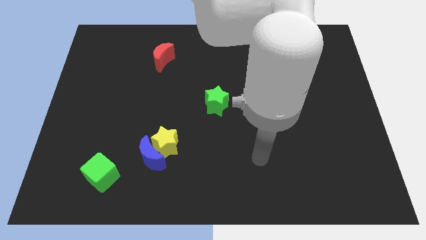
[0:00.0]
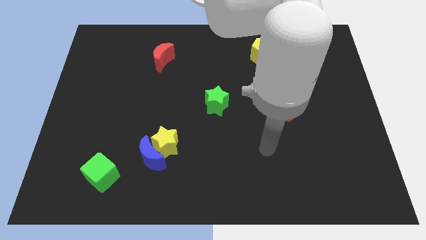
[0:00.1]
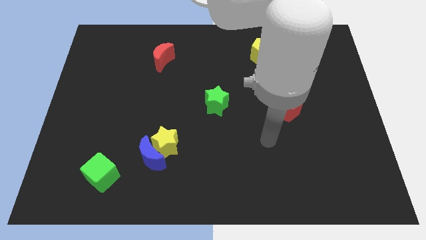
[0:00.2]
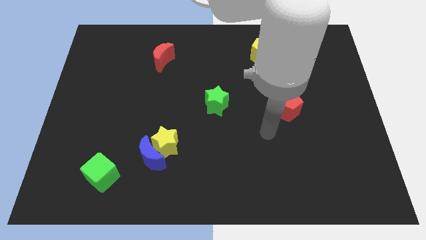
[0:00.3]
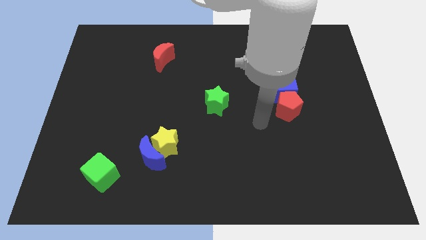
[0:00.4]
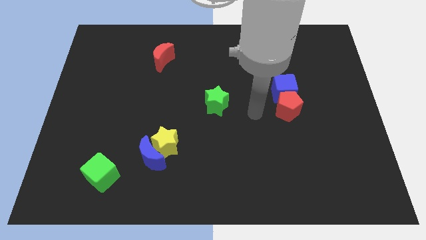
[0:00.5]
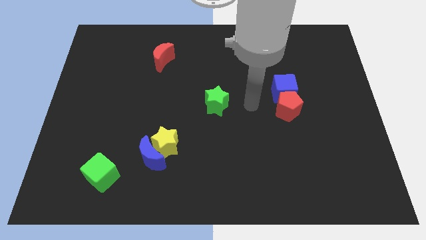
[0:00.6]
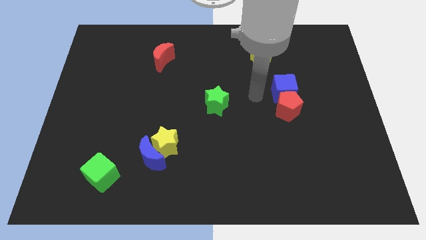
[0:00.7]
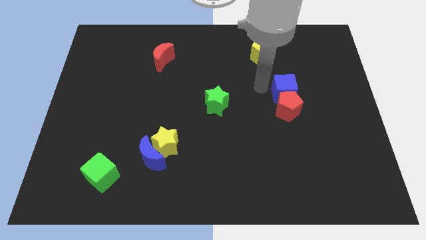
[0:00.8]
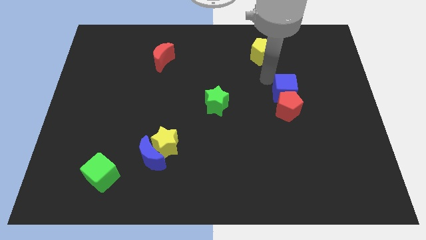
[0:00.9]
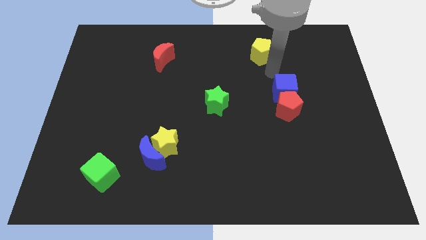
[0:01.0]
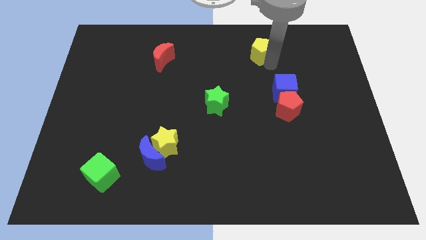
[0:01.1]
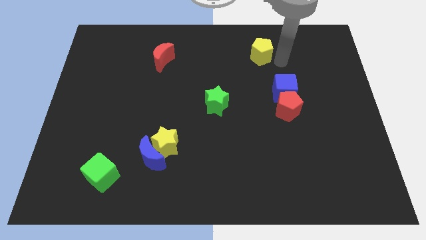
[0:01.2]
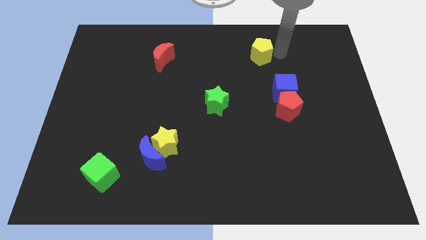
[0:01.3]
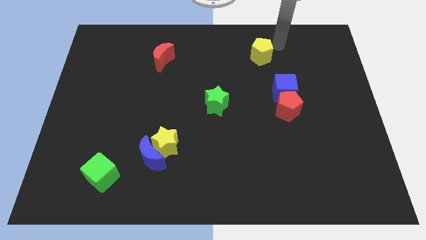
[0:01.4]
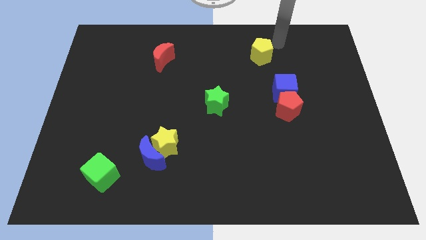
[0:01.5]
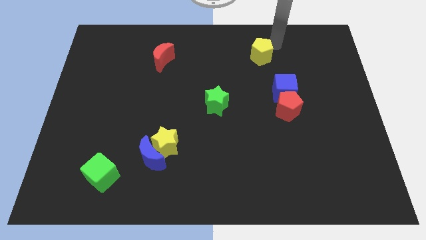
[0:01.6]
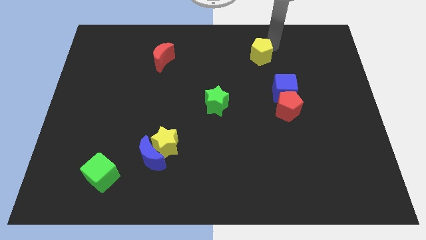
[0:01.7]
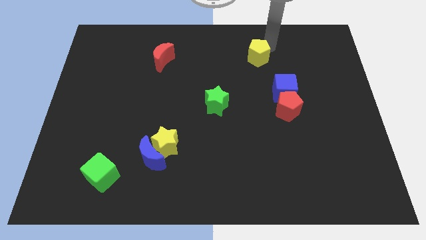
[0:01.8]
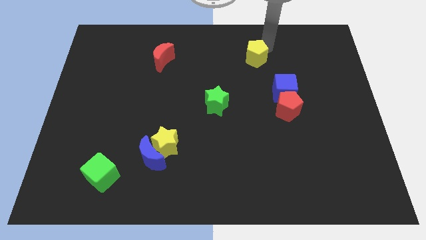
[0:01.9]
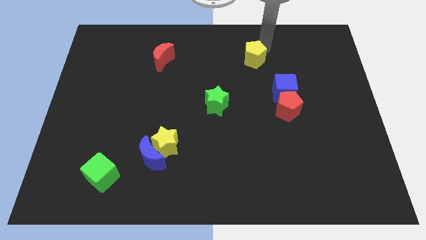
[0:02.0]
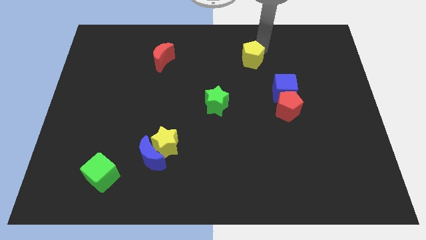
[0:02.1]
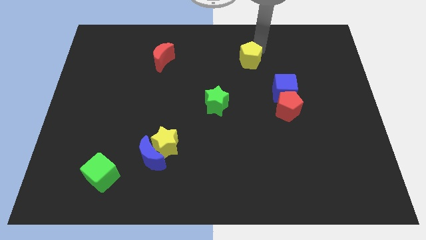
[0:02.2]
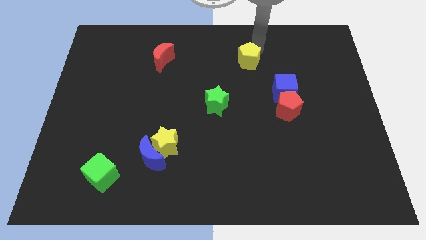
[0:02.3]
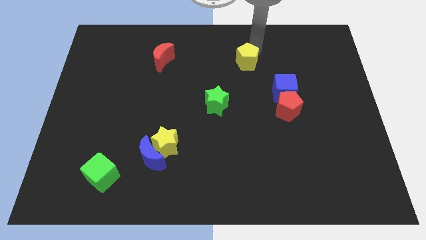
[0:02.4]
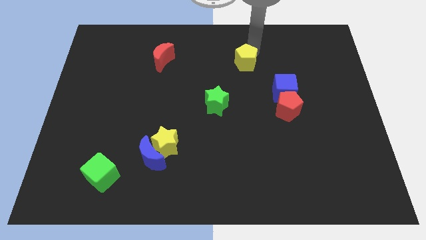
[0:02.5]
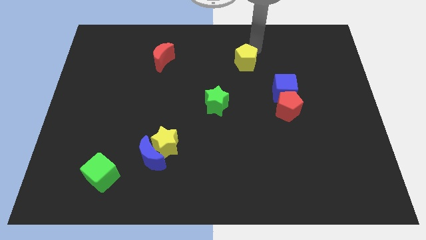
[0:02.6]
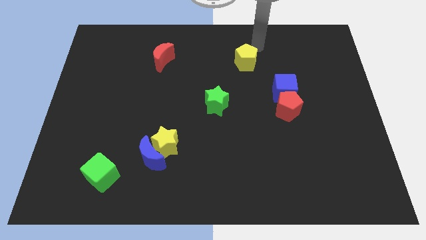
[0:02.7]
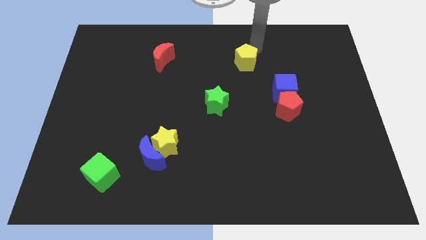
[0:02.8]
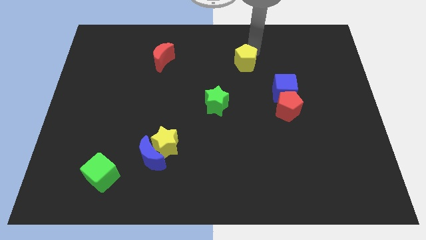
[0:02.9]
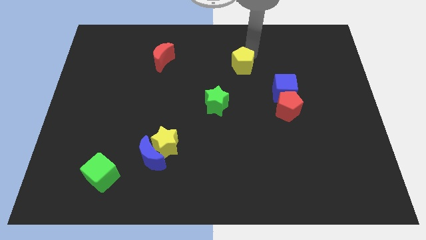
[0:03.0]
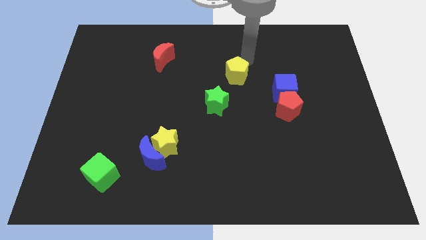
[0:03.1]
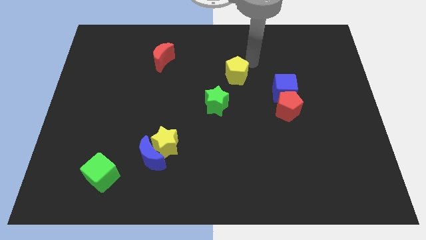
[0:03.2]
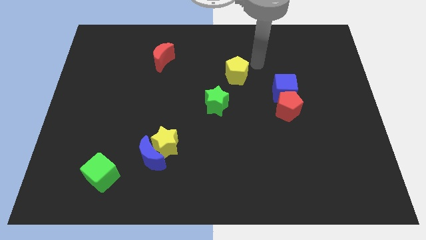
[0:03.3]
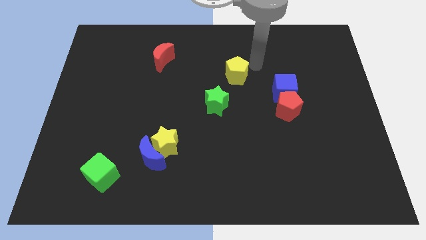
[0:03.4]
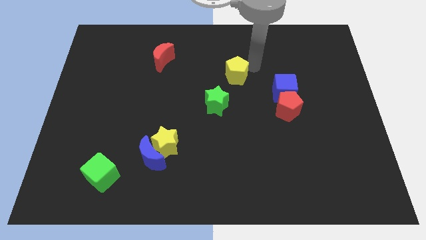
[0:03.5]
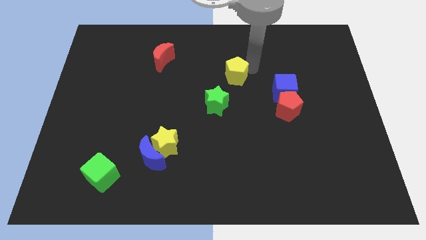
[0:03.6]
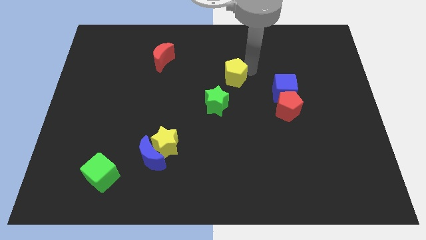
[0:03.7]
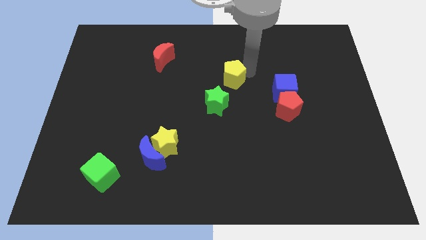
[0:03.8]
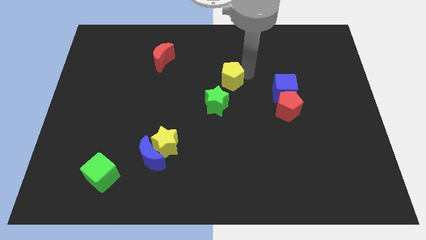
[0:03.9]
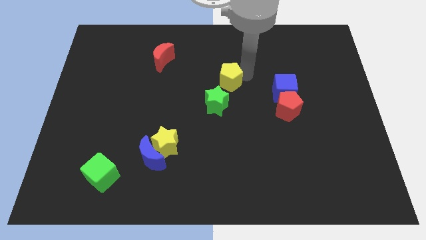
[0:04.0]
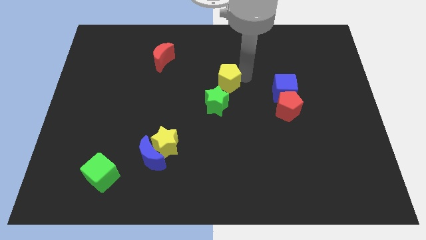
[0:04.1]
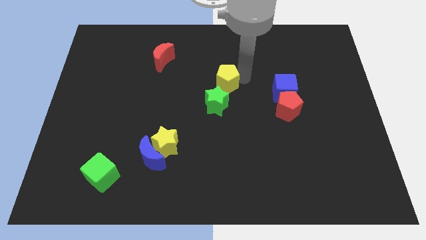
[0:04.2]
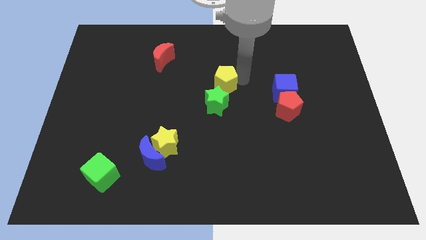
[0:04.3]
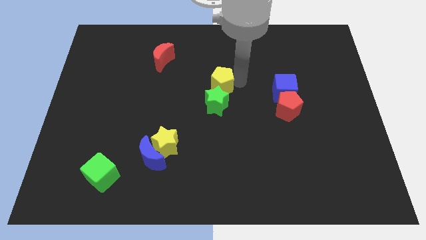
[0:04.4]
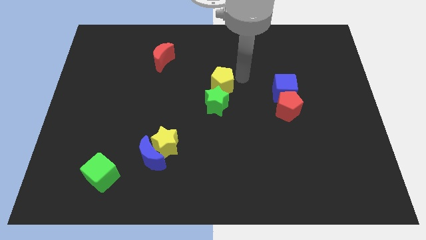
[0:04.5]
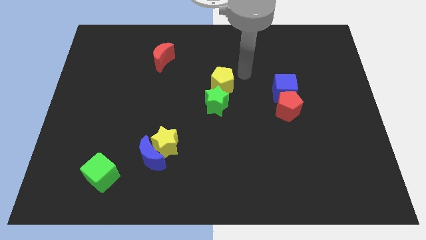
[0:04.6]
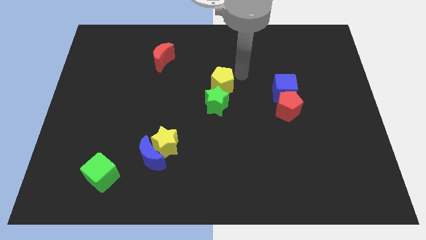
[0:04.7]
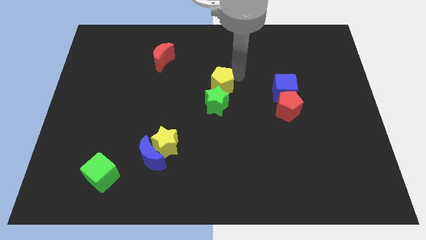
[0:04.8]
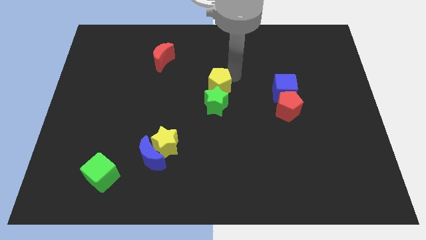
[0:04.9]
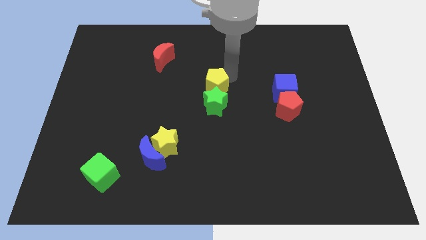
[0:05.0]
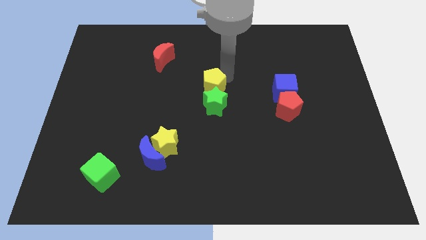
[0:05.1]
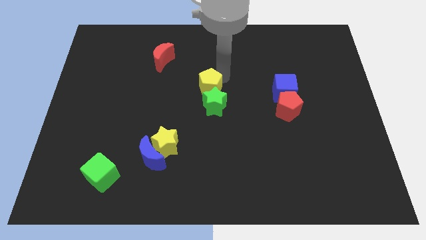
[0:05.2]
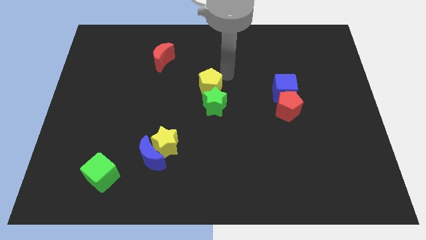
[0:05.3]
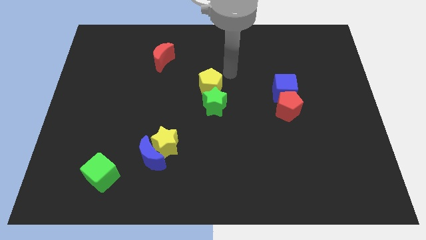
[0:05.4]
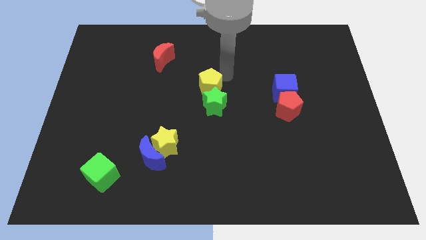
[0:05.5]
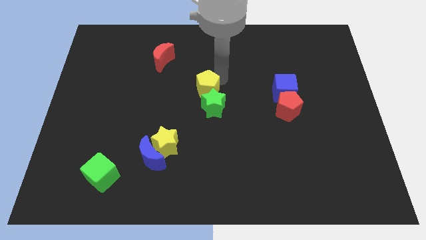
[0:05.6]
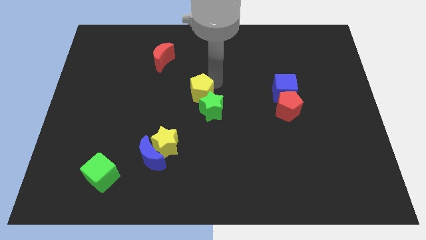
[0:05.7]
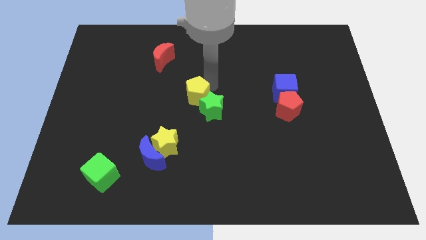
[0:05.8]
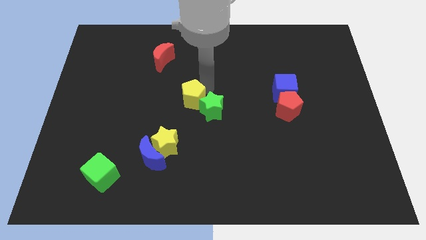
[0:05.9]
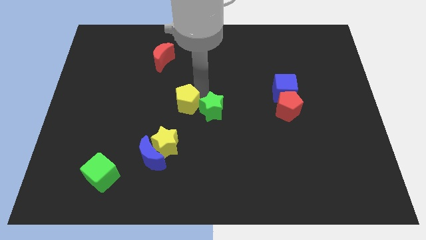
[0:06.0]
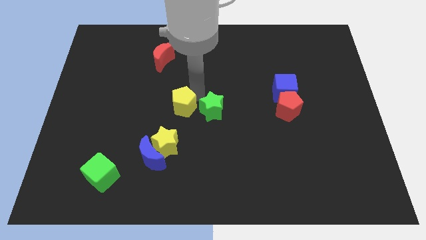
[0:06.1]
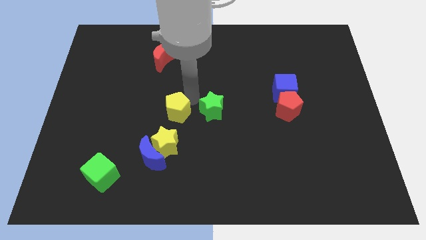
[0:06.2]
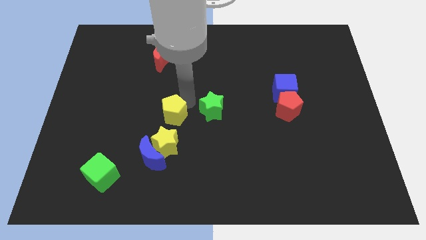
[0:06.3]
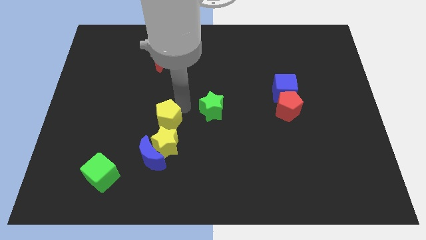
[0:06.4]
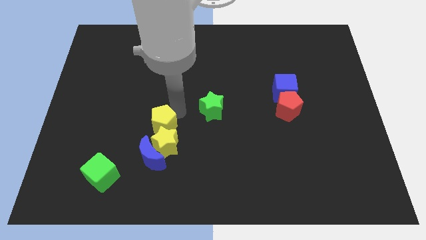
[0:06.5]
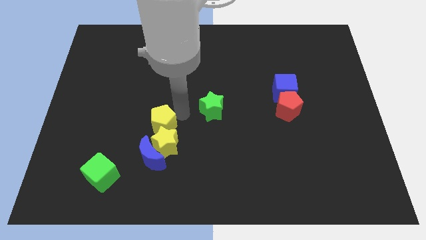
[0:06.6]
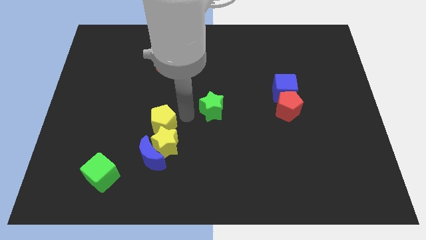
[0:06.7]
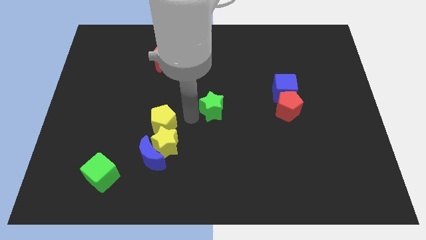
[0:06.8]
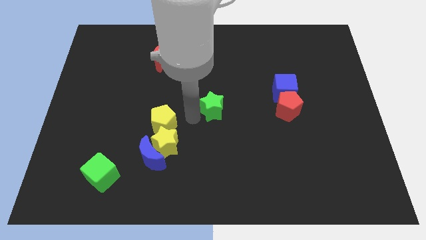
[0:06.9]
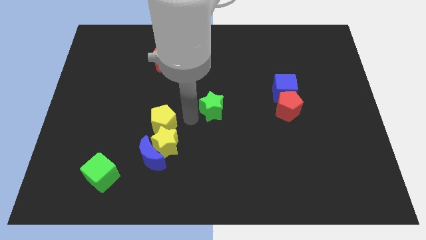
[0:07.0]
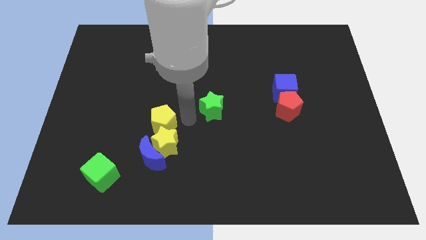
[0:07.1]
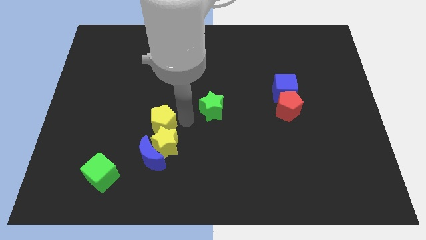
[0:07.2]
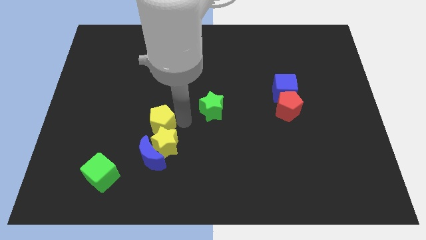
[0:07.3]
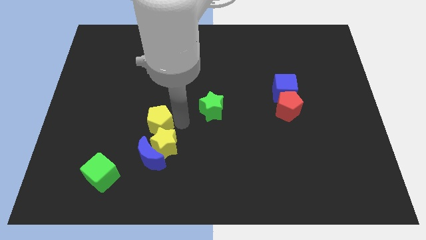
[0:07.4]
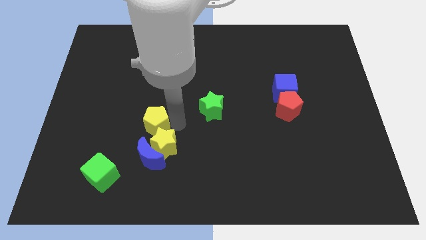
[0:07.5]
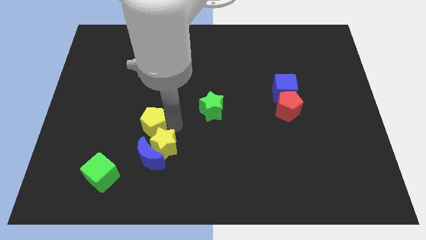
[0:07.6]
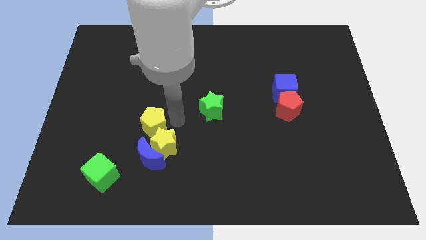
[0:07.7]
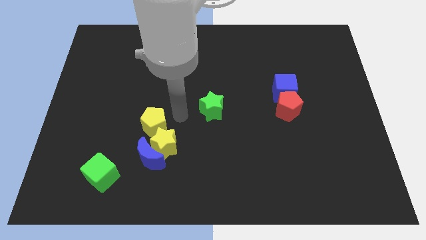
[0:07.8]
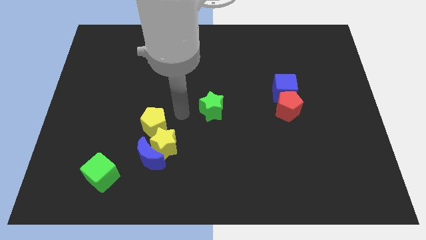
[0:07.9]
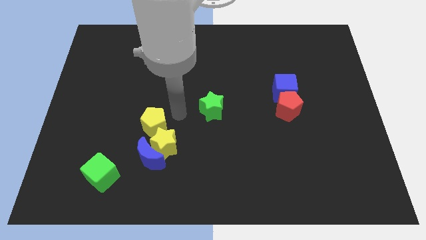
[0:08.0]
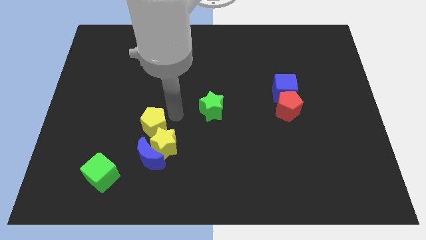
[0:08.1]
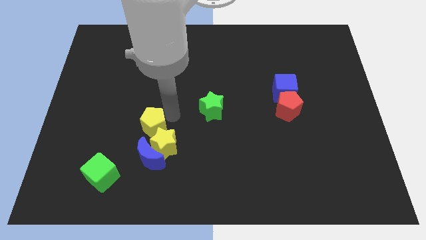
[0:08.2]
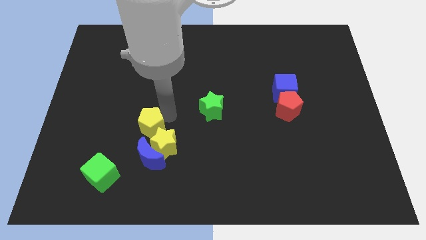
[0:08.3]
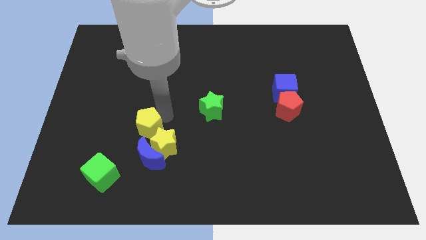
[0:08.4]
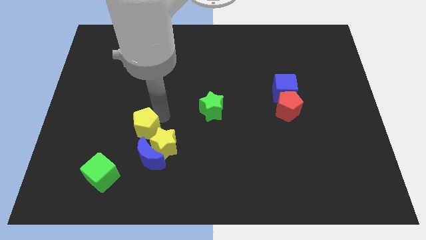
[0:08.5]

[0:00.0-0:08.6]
slide the yellow pentagon to the top left of the blue moon
